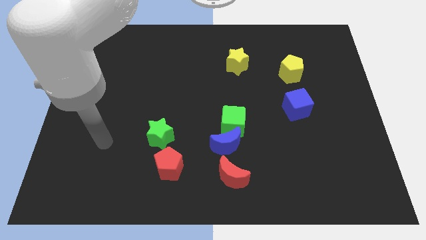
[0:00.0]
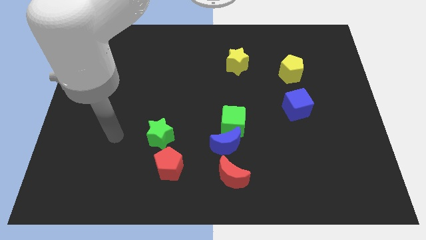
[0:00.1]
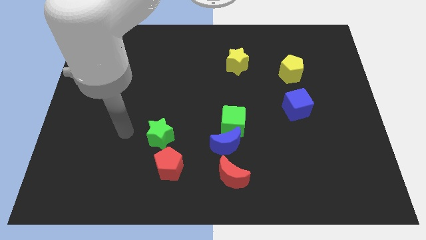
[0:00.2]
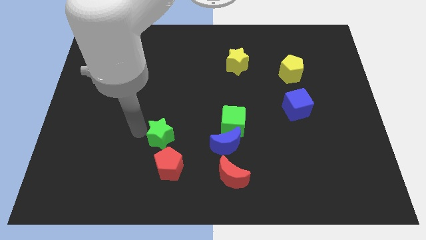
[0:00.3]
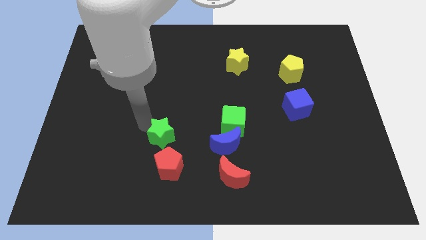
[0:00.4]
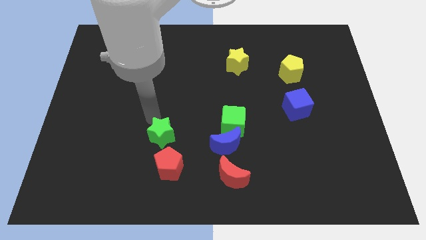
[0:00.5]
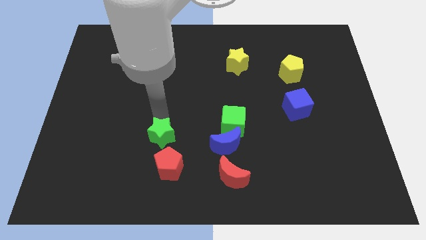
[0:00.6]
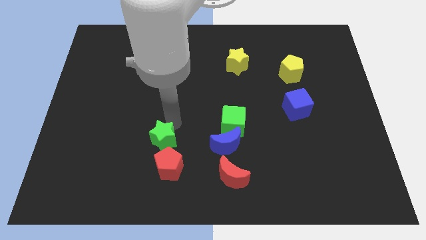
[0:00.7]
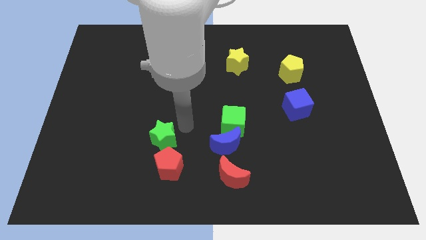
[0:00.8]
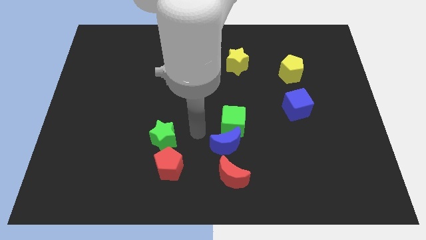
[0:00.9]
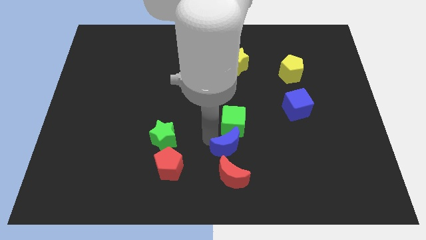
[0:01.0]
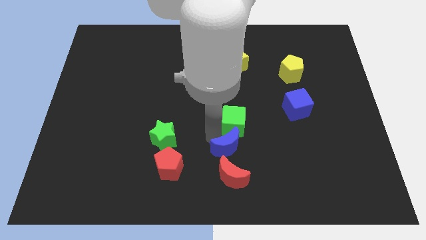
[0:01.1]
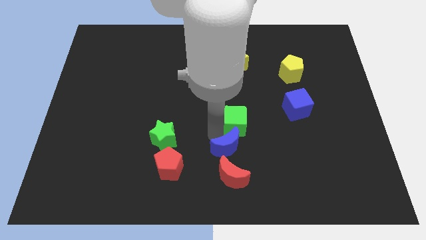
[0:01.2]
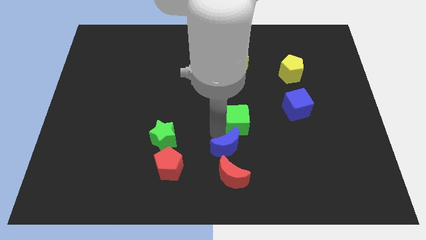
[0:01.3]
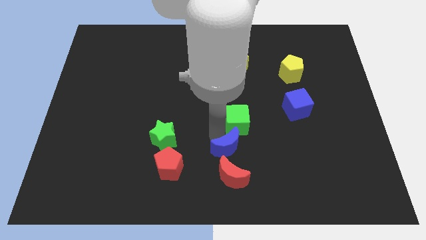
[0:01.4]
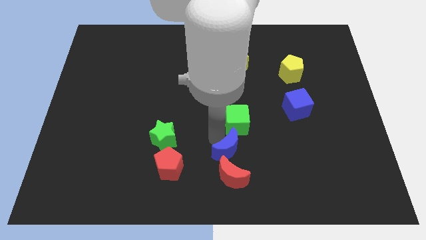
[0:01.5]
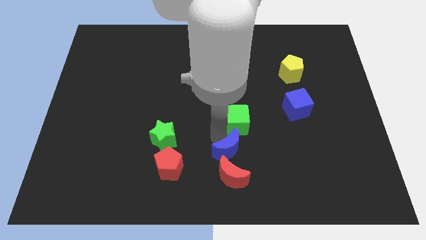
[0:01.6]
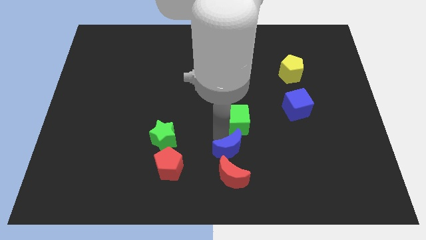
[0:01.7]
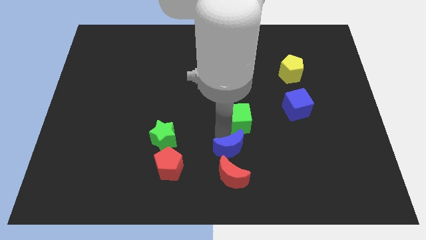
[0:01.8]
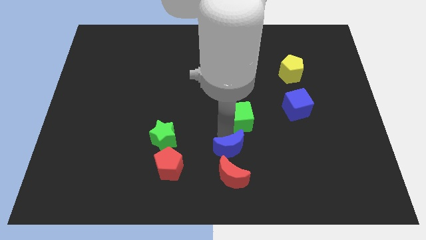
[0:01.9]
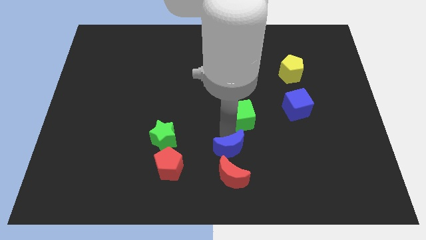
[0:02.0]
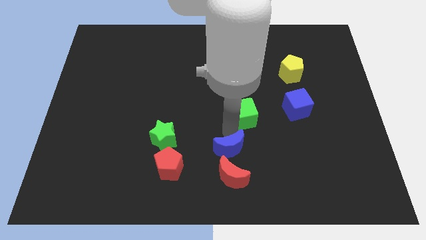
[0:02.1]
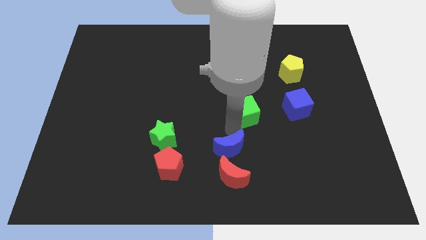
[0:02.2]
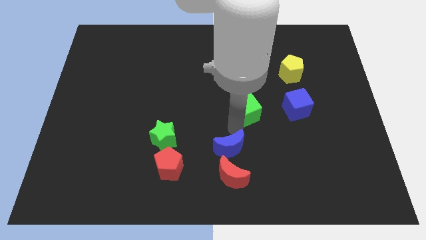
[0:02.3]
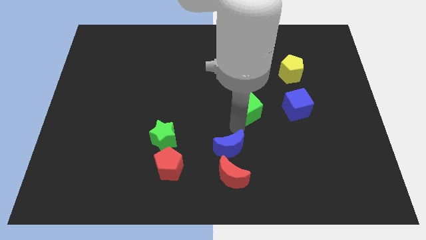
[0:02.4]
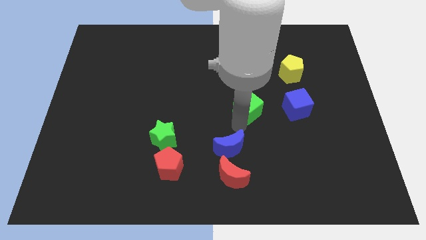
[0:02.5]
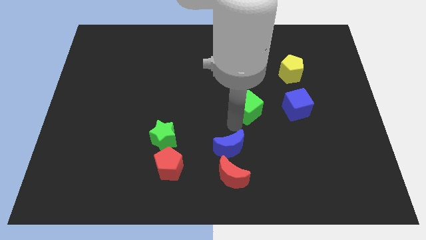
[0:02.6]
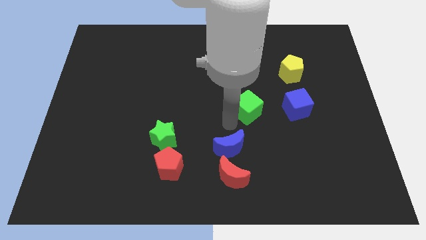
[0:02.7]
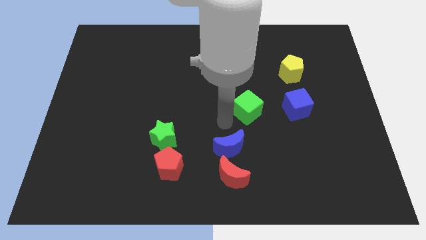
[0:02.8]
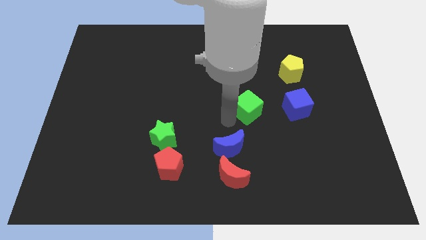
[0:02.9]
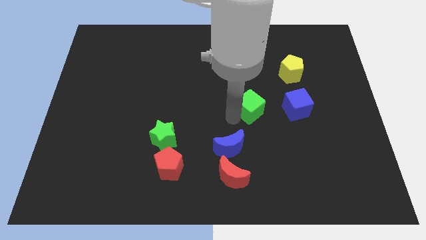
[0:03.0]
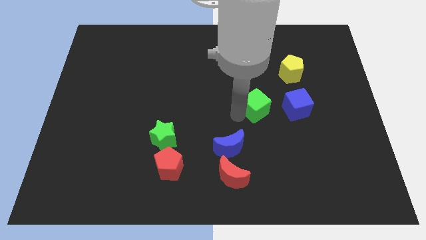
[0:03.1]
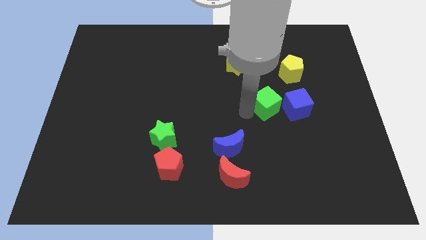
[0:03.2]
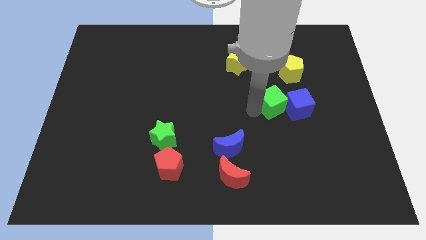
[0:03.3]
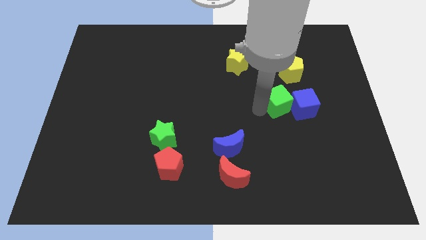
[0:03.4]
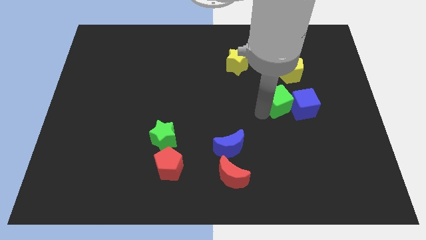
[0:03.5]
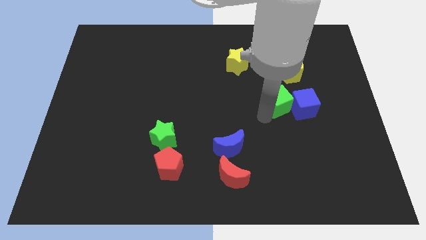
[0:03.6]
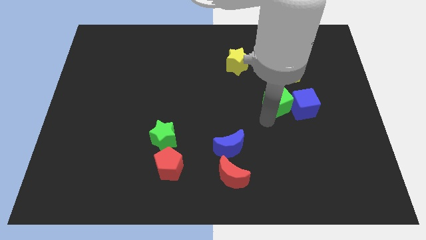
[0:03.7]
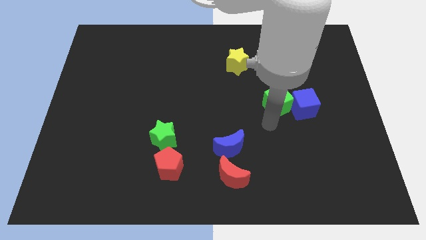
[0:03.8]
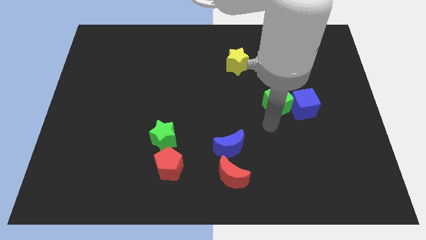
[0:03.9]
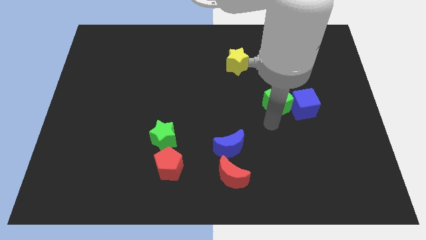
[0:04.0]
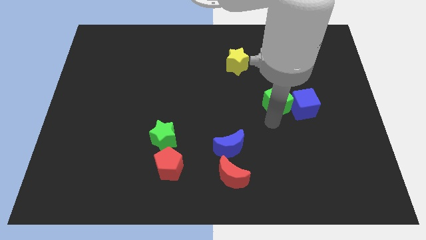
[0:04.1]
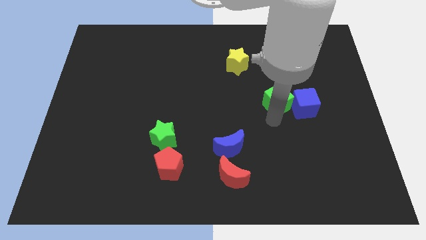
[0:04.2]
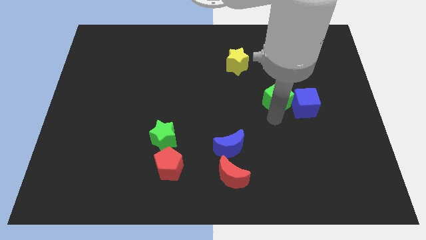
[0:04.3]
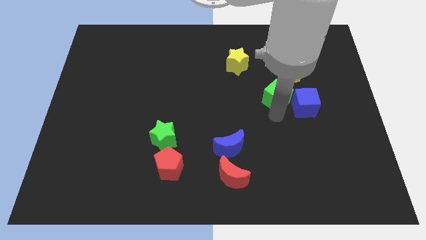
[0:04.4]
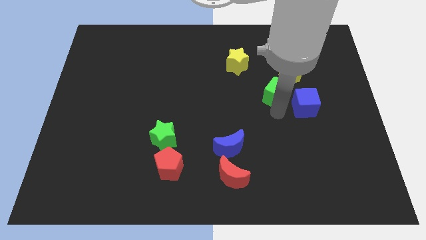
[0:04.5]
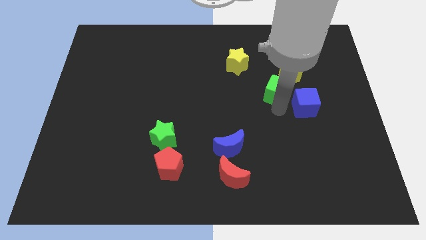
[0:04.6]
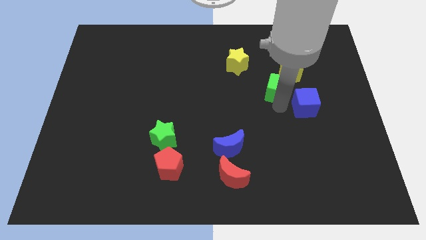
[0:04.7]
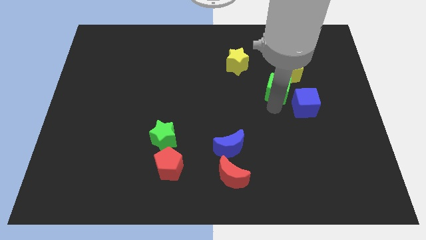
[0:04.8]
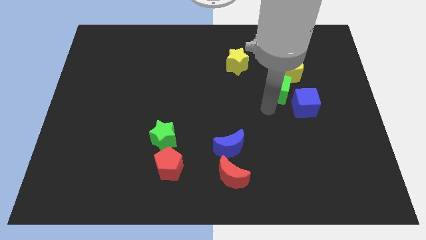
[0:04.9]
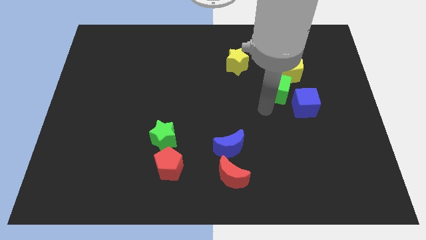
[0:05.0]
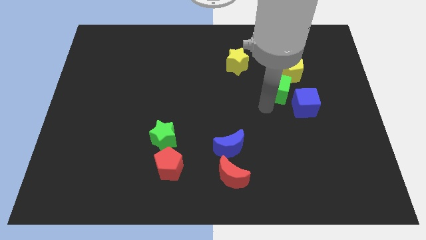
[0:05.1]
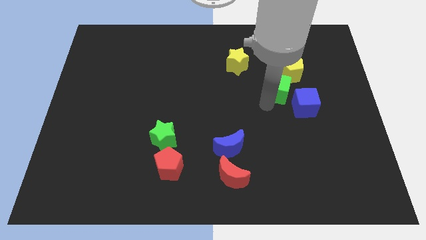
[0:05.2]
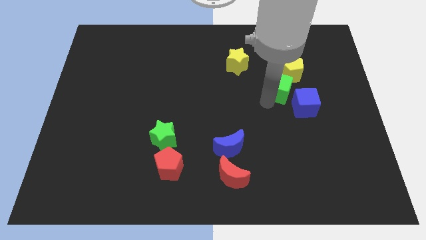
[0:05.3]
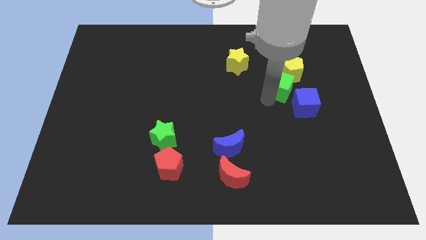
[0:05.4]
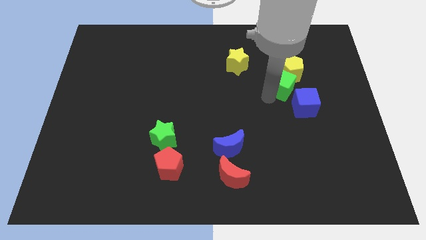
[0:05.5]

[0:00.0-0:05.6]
push the green cube next to the yellow pentagon

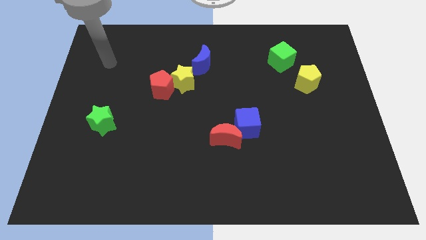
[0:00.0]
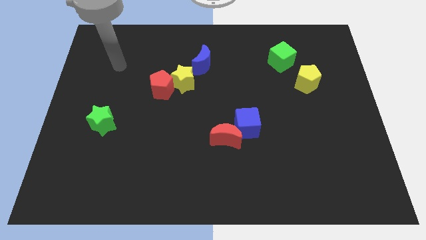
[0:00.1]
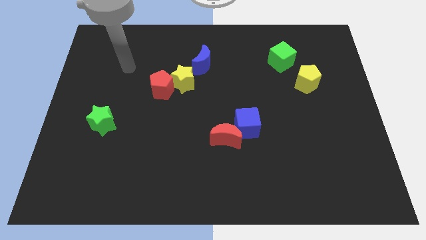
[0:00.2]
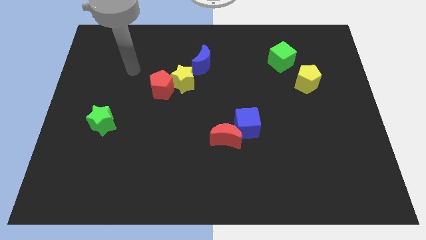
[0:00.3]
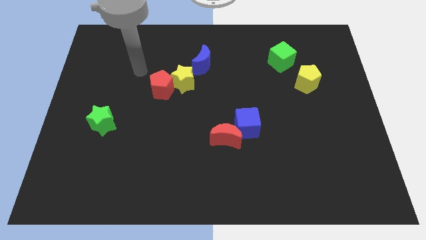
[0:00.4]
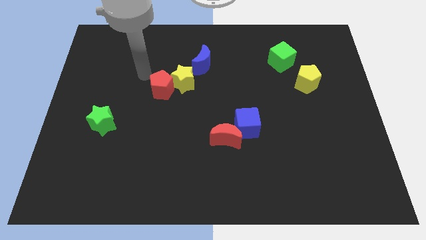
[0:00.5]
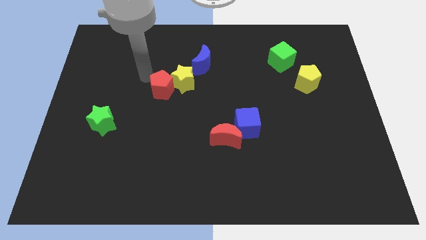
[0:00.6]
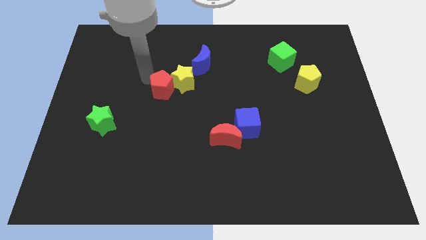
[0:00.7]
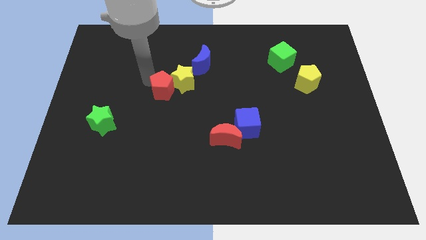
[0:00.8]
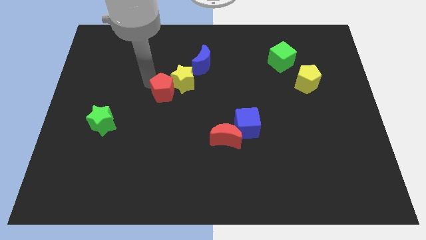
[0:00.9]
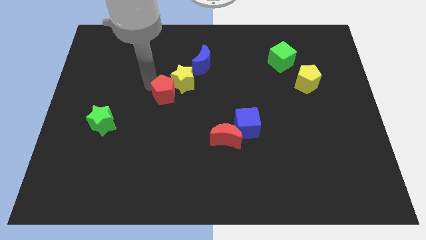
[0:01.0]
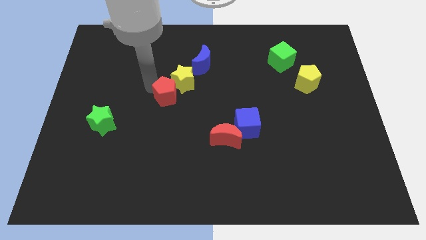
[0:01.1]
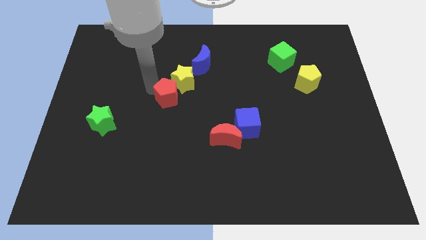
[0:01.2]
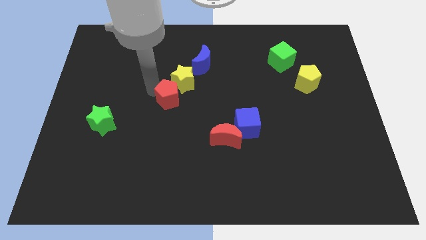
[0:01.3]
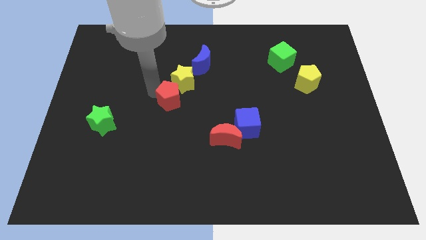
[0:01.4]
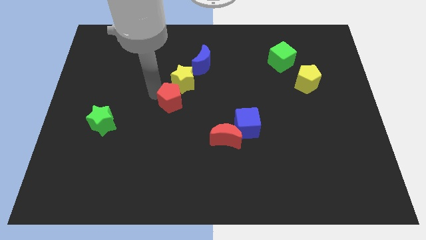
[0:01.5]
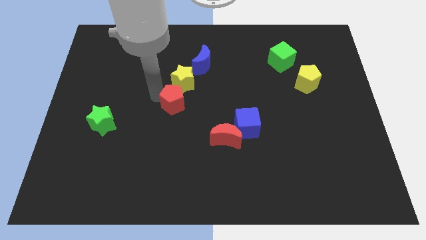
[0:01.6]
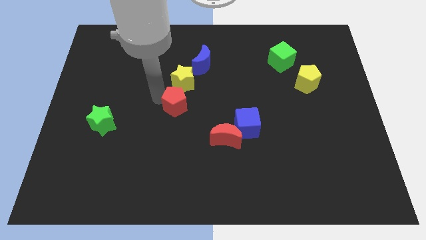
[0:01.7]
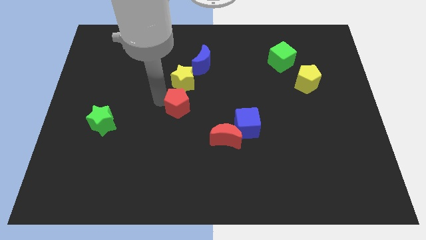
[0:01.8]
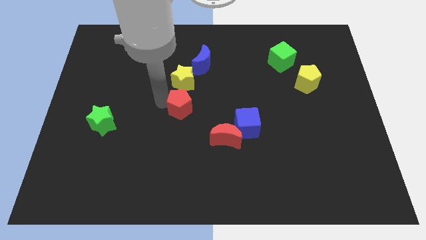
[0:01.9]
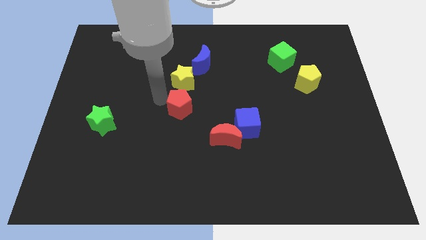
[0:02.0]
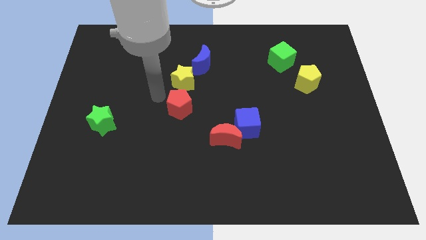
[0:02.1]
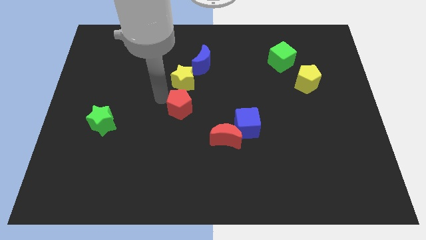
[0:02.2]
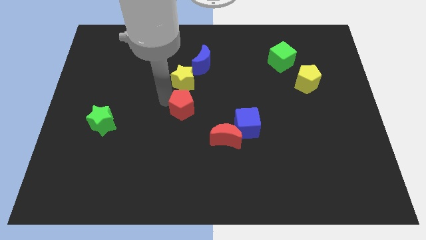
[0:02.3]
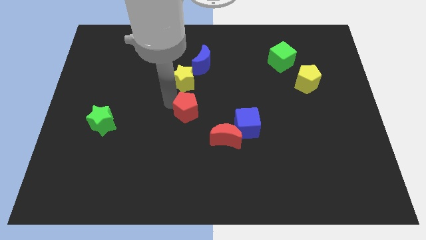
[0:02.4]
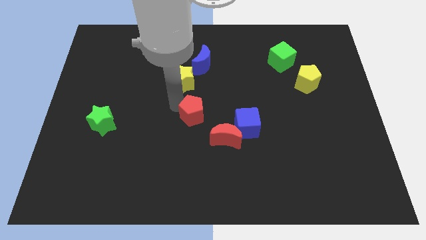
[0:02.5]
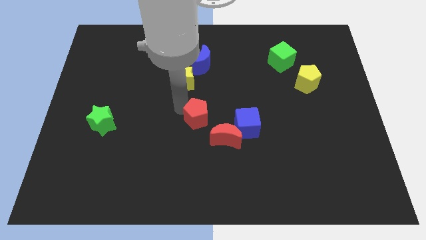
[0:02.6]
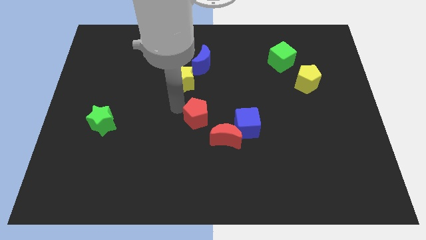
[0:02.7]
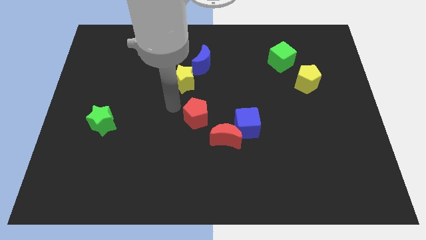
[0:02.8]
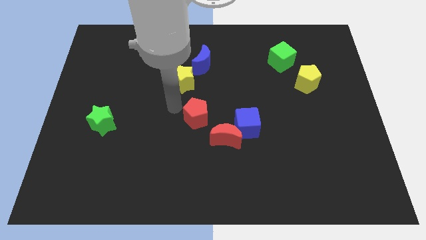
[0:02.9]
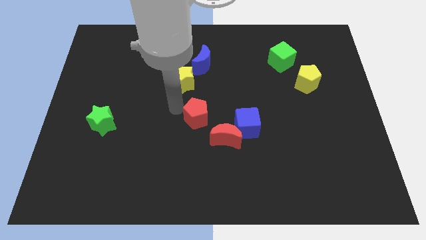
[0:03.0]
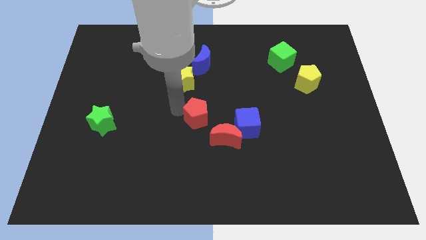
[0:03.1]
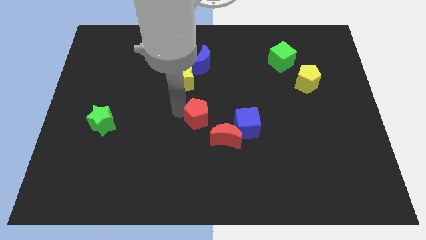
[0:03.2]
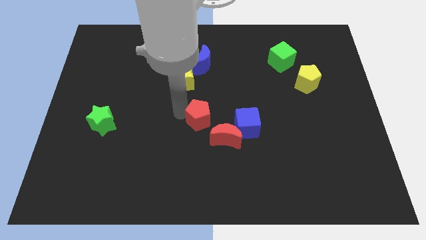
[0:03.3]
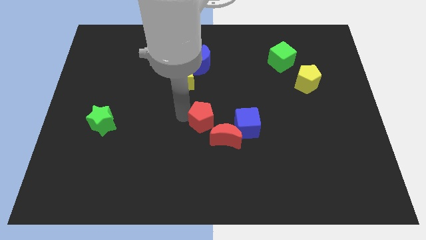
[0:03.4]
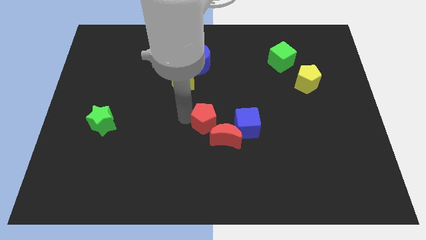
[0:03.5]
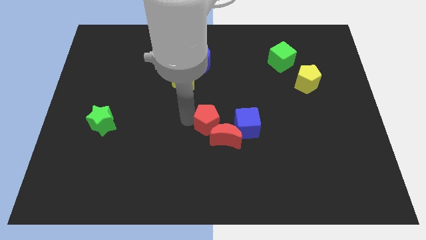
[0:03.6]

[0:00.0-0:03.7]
move the red pentagon next to the red moon
